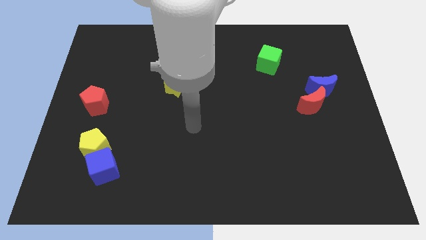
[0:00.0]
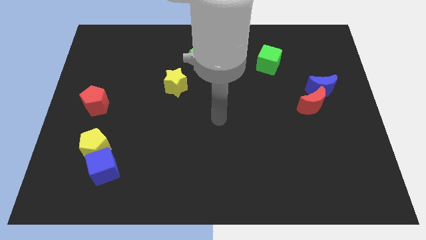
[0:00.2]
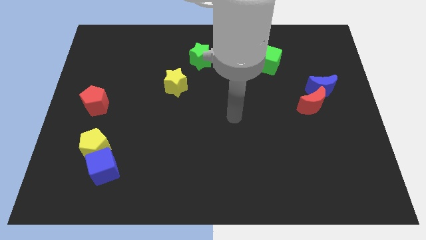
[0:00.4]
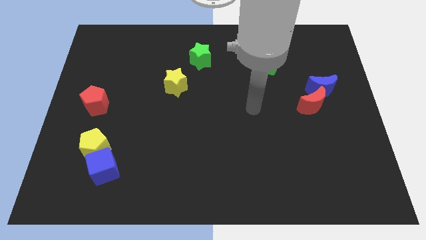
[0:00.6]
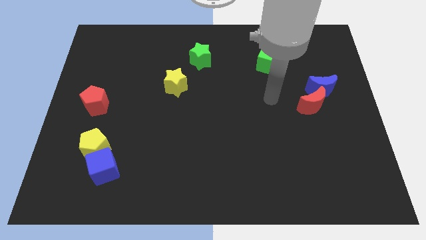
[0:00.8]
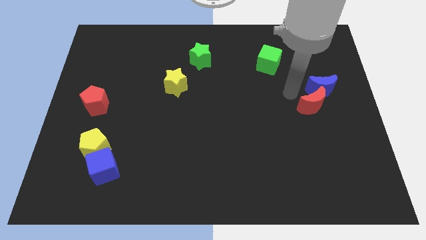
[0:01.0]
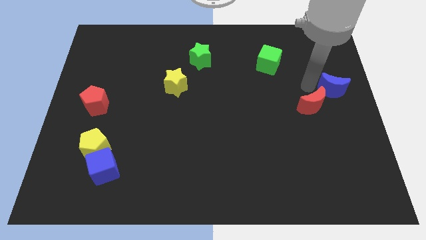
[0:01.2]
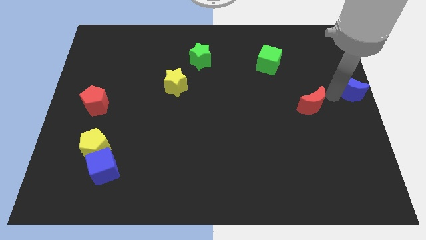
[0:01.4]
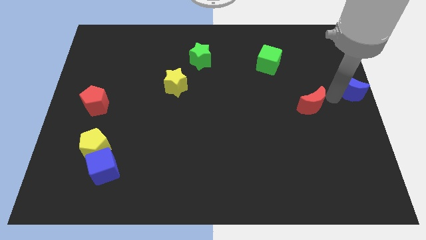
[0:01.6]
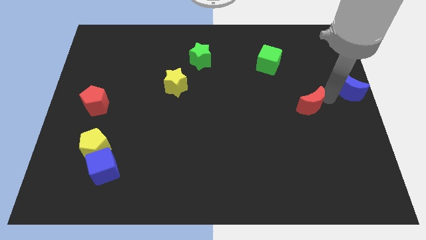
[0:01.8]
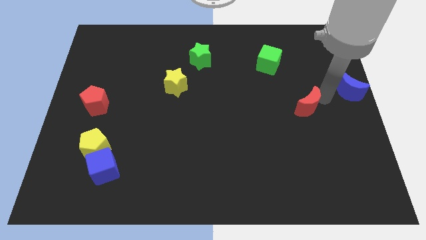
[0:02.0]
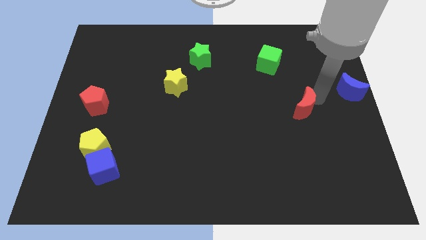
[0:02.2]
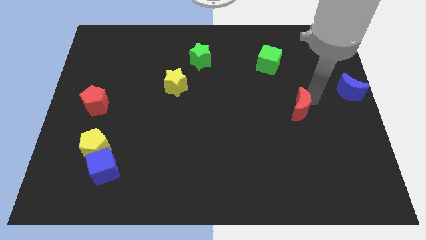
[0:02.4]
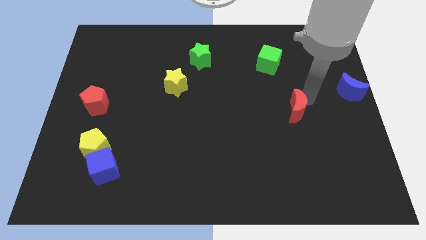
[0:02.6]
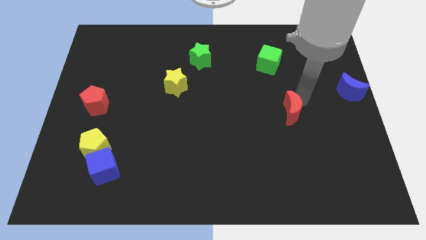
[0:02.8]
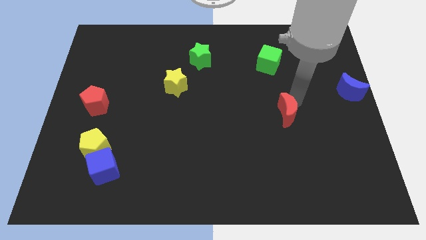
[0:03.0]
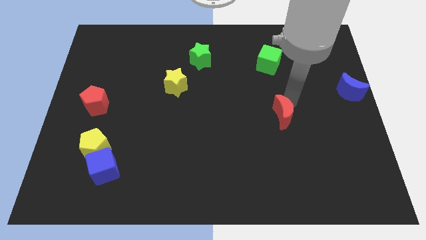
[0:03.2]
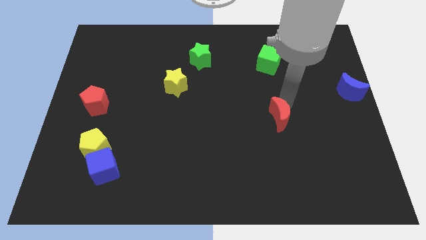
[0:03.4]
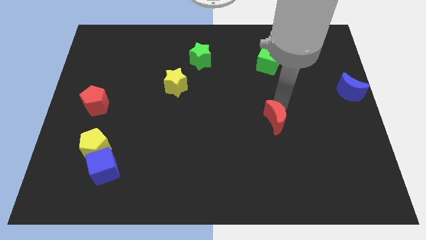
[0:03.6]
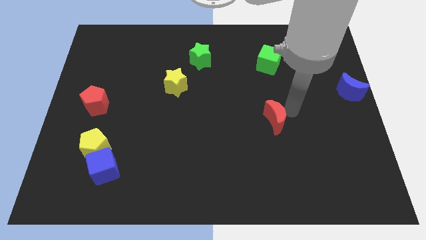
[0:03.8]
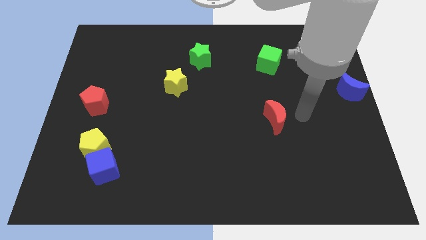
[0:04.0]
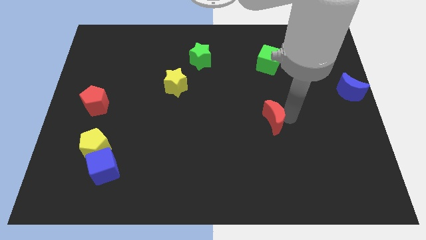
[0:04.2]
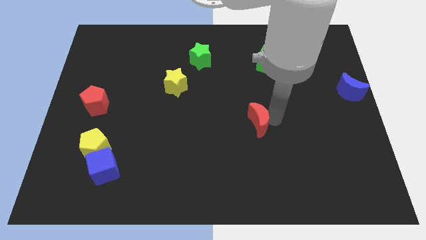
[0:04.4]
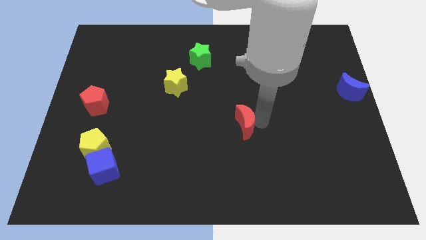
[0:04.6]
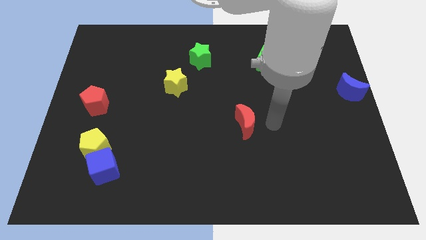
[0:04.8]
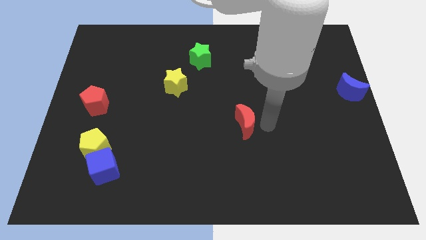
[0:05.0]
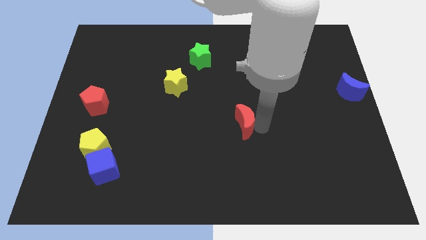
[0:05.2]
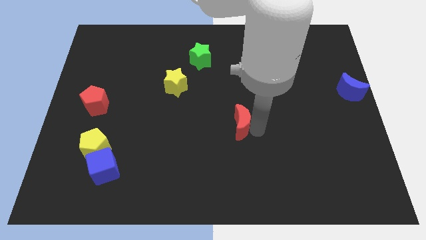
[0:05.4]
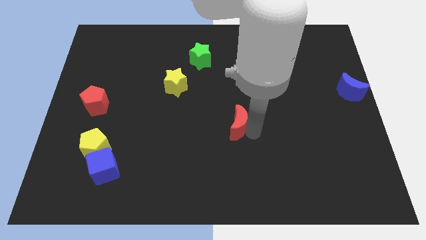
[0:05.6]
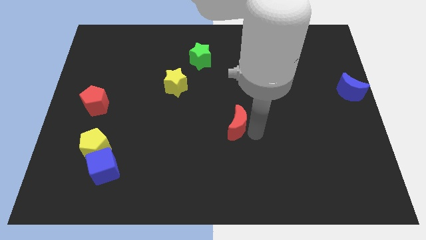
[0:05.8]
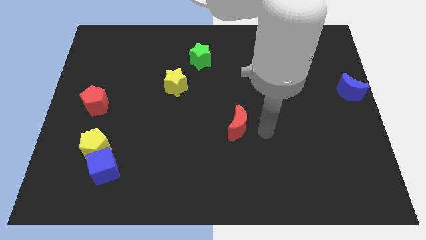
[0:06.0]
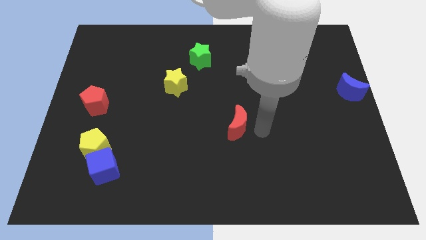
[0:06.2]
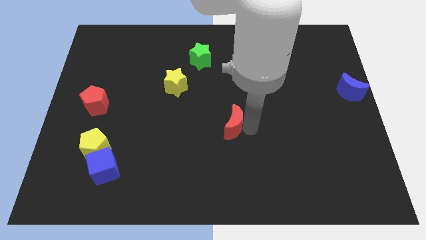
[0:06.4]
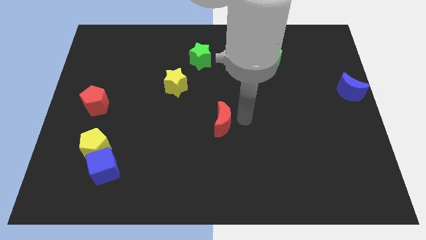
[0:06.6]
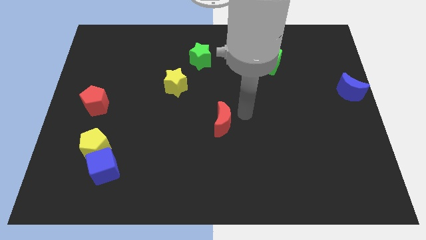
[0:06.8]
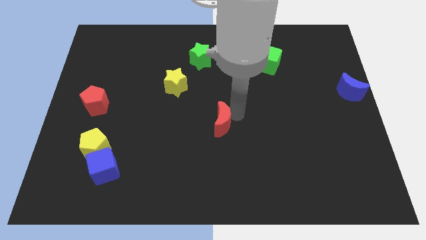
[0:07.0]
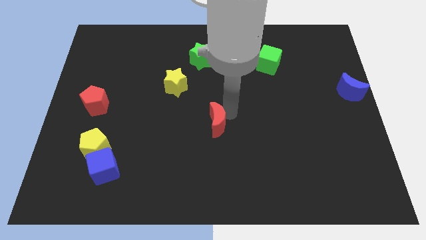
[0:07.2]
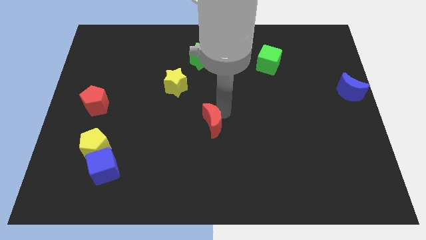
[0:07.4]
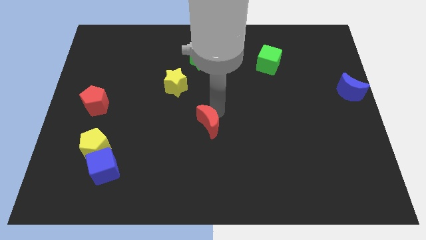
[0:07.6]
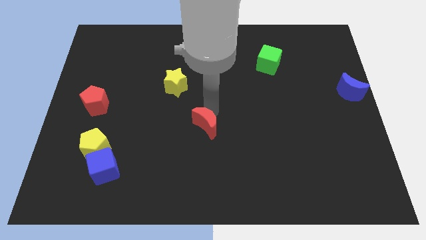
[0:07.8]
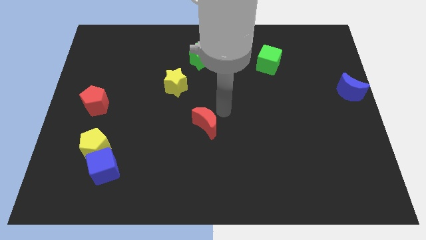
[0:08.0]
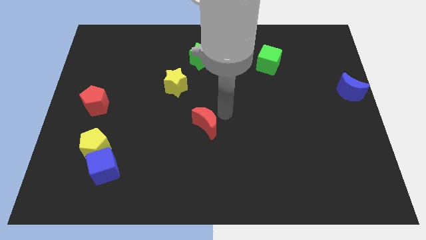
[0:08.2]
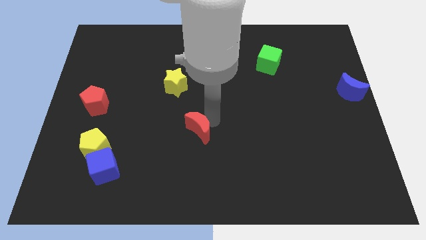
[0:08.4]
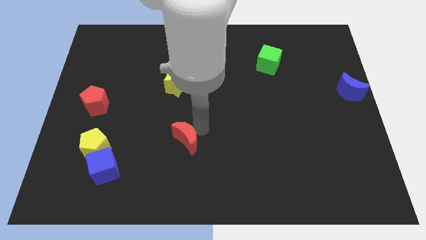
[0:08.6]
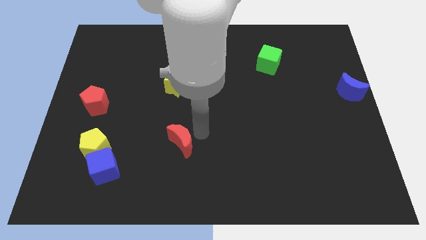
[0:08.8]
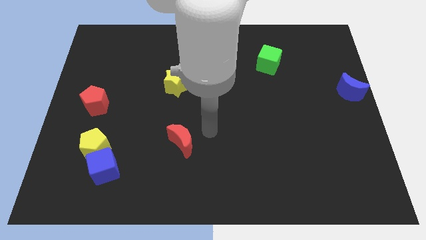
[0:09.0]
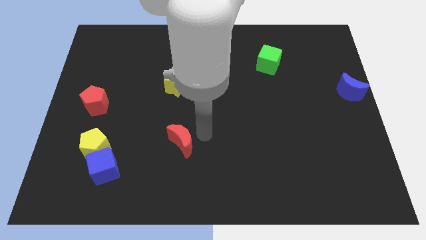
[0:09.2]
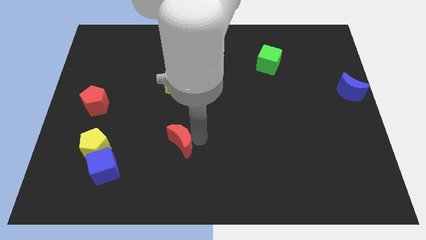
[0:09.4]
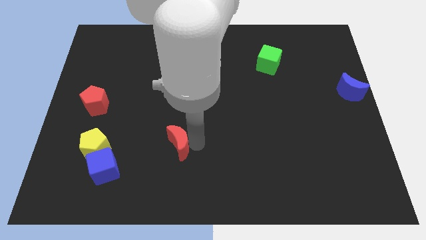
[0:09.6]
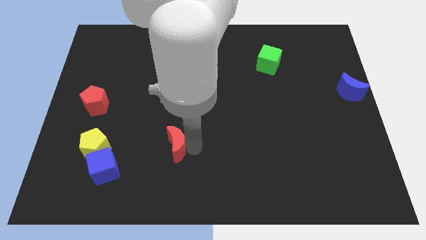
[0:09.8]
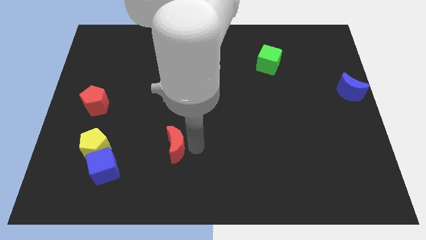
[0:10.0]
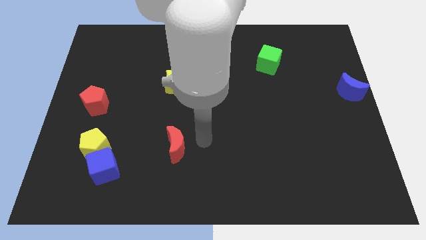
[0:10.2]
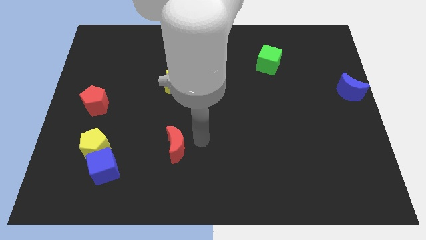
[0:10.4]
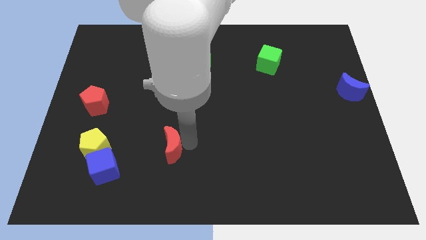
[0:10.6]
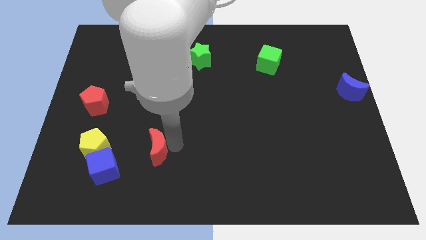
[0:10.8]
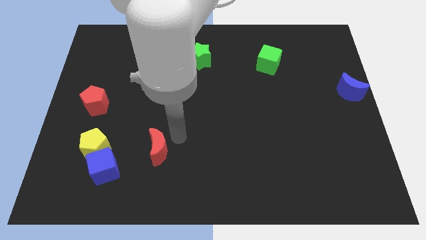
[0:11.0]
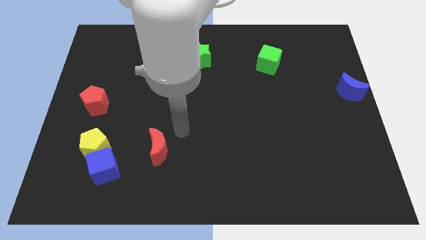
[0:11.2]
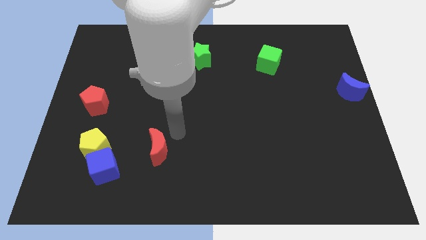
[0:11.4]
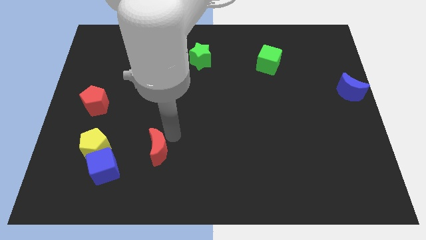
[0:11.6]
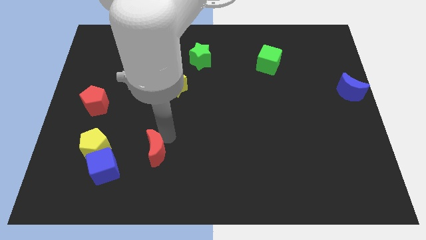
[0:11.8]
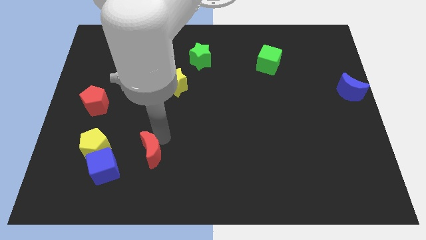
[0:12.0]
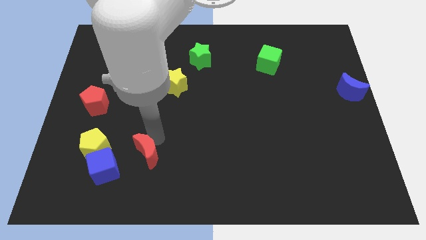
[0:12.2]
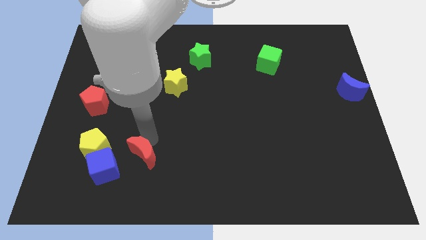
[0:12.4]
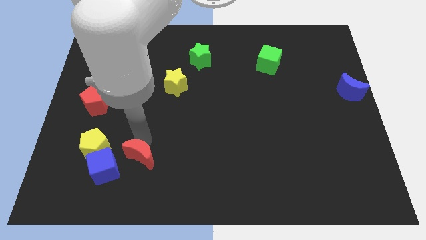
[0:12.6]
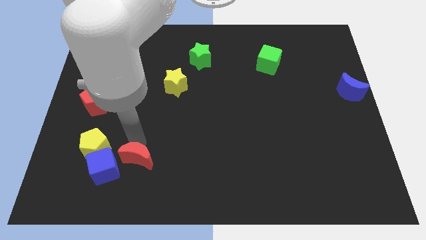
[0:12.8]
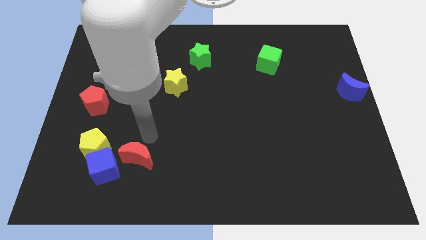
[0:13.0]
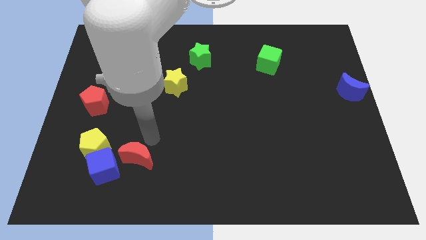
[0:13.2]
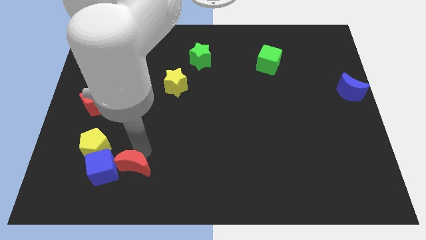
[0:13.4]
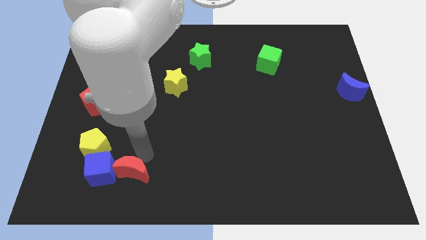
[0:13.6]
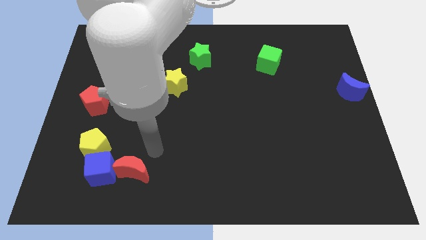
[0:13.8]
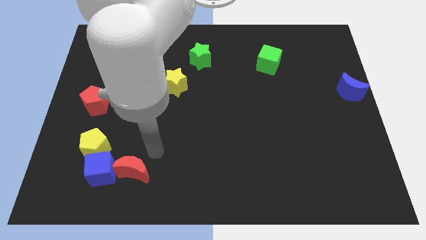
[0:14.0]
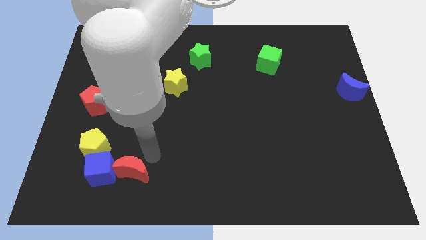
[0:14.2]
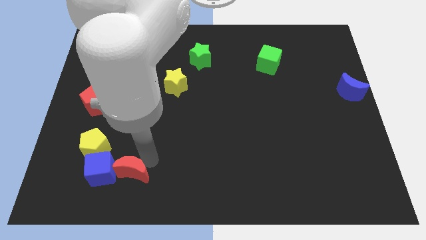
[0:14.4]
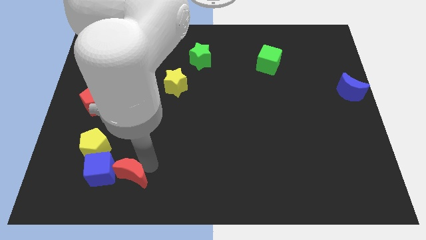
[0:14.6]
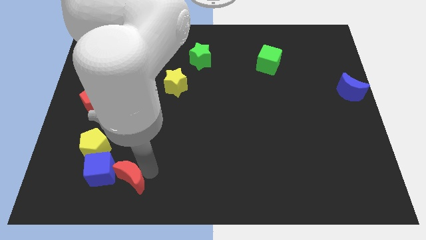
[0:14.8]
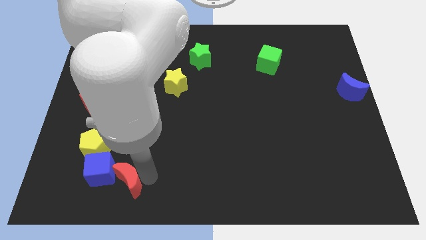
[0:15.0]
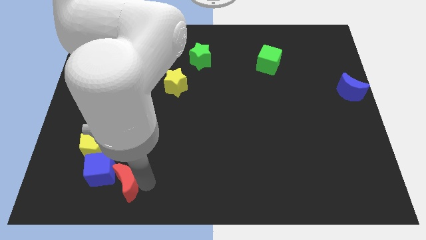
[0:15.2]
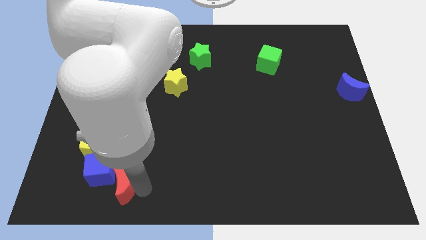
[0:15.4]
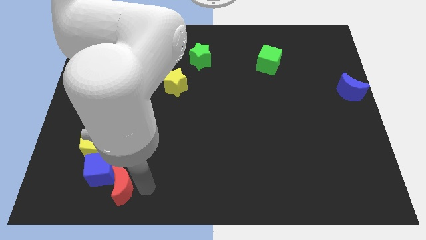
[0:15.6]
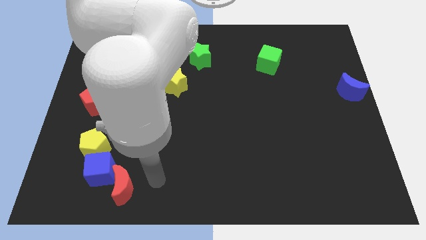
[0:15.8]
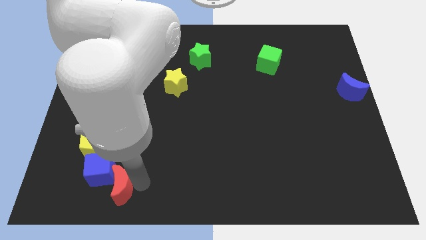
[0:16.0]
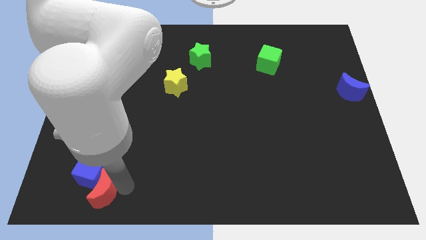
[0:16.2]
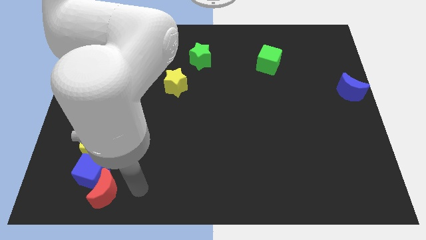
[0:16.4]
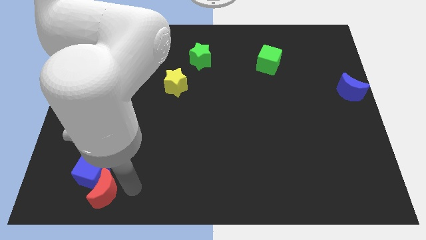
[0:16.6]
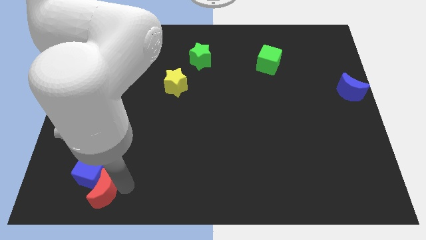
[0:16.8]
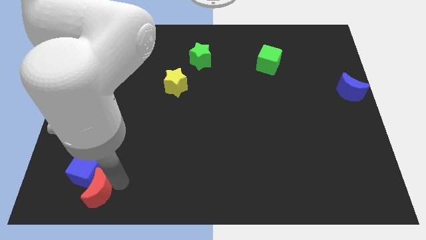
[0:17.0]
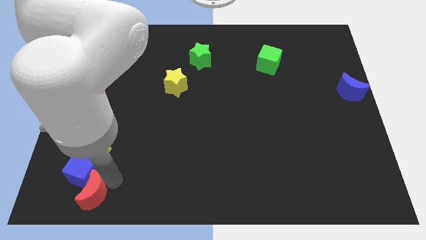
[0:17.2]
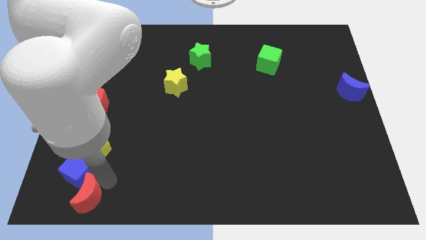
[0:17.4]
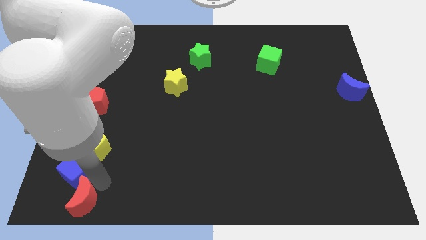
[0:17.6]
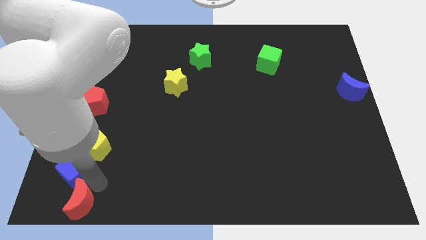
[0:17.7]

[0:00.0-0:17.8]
move the red moon to the bottom left corner
